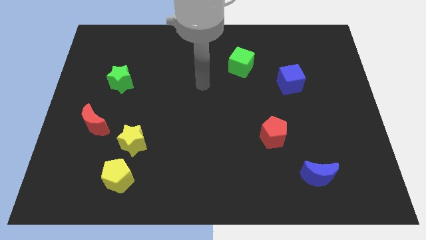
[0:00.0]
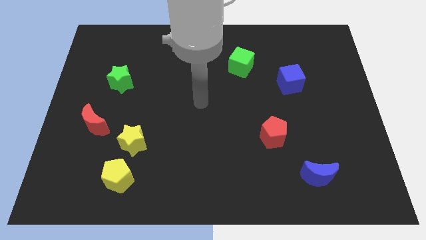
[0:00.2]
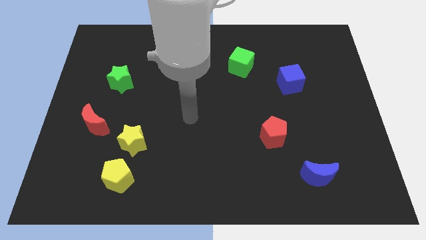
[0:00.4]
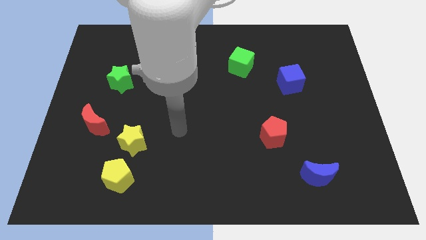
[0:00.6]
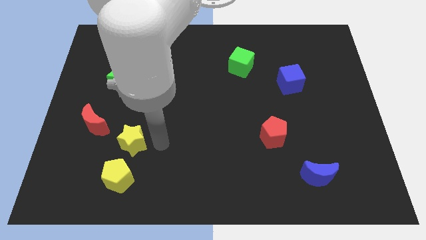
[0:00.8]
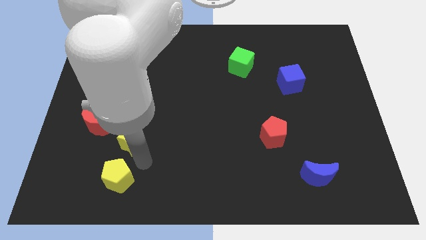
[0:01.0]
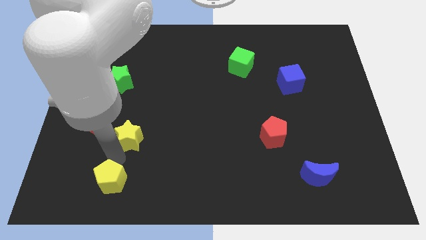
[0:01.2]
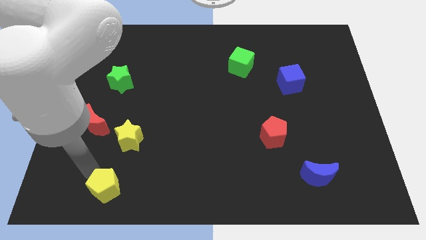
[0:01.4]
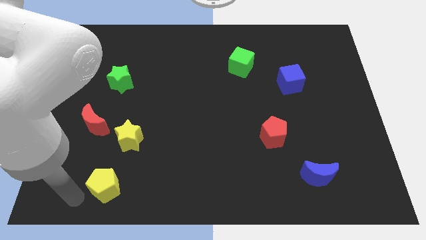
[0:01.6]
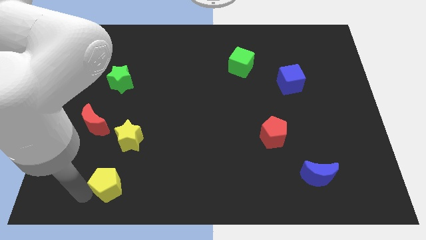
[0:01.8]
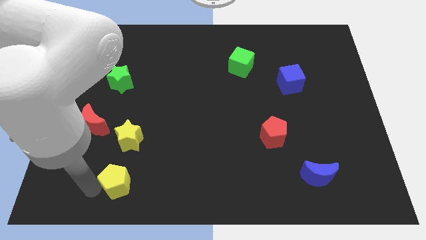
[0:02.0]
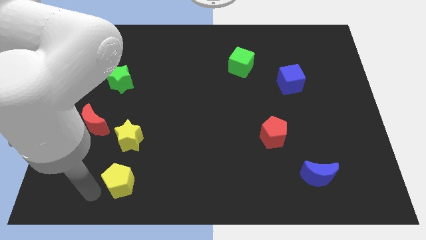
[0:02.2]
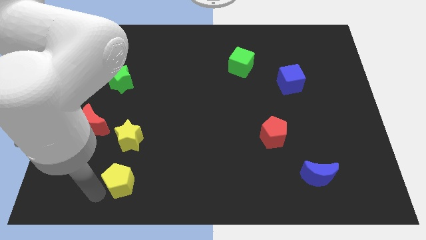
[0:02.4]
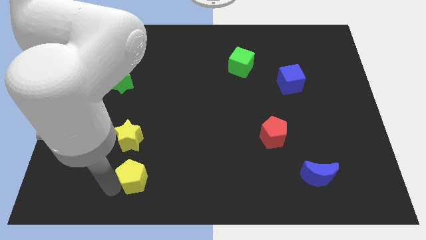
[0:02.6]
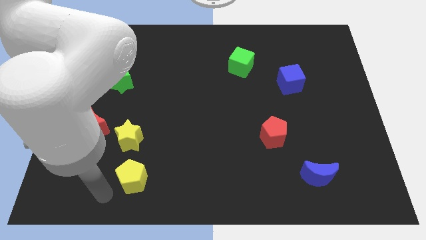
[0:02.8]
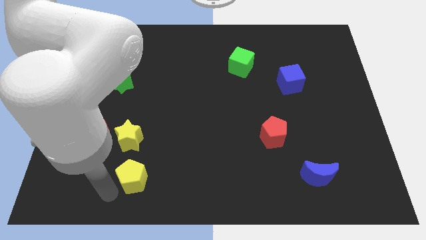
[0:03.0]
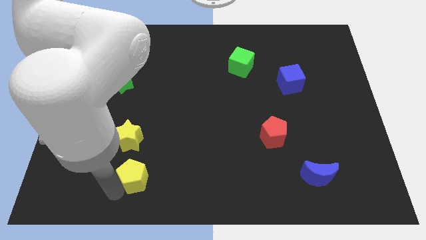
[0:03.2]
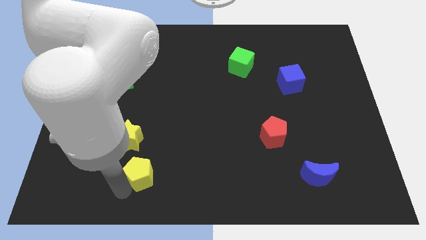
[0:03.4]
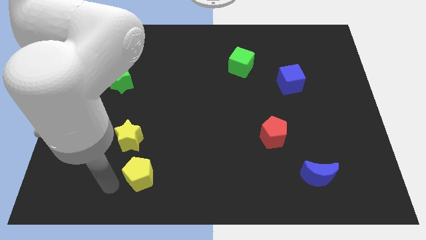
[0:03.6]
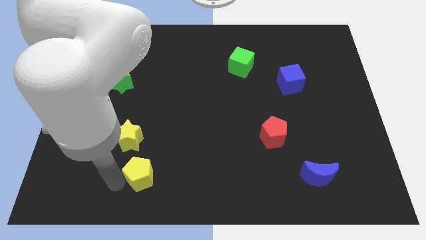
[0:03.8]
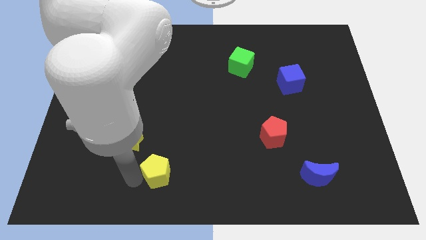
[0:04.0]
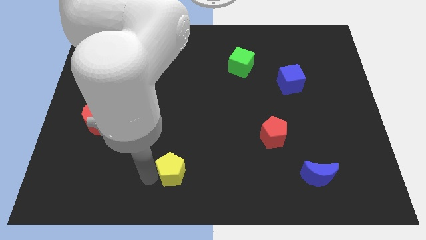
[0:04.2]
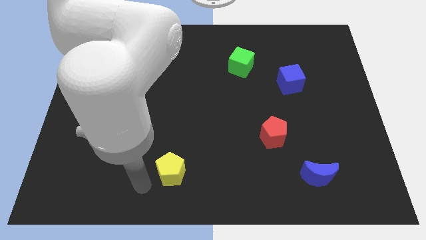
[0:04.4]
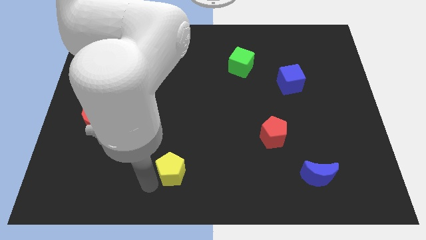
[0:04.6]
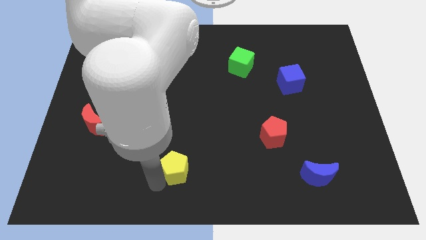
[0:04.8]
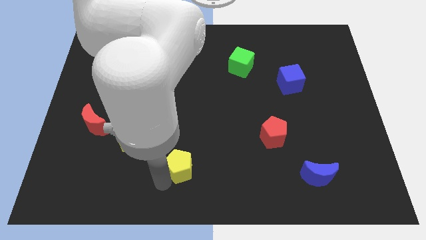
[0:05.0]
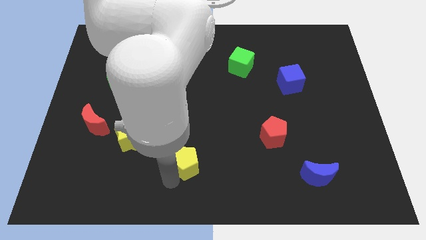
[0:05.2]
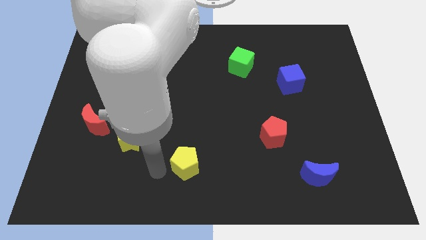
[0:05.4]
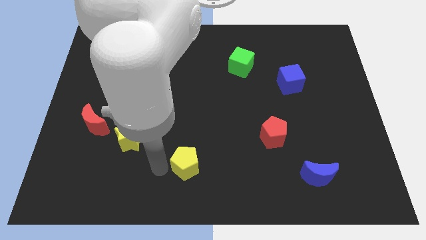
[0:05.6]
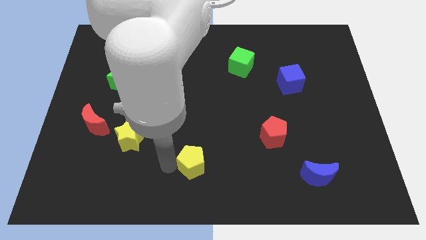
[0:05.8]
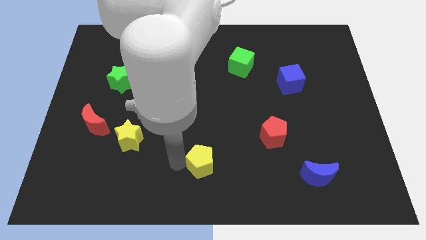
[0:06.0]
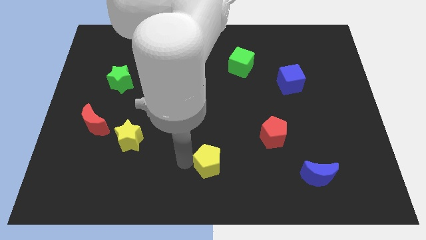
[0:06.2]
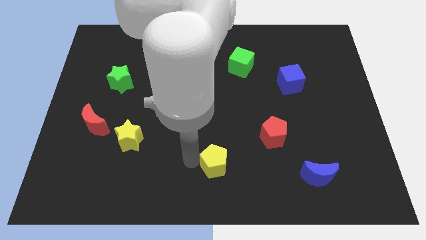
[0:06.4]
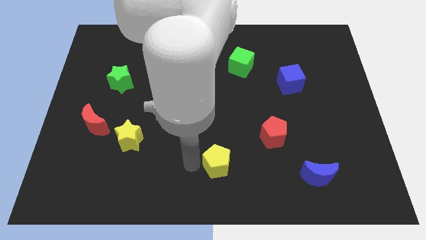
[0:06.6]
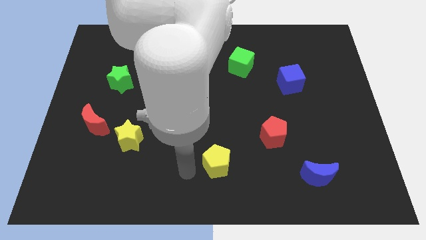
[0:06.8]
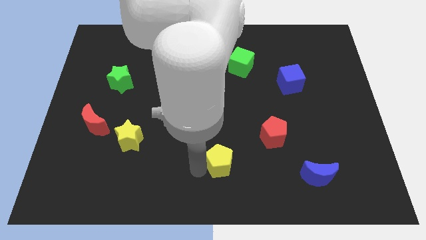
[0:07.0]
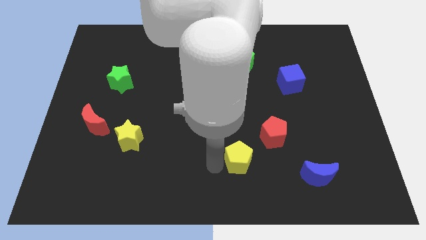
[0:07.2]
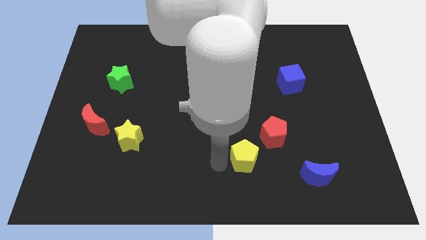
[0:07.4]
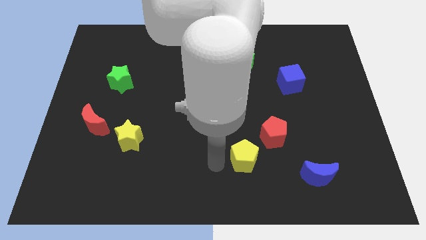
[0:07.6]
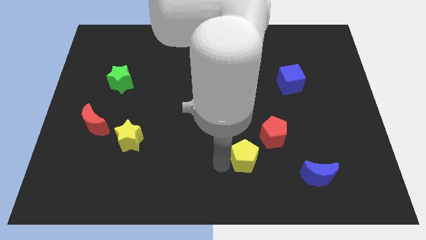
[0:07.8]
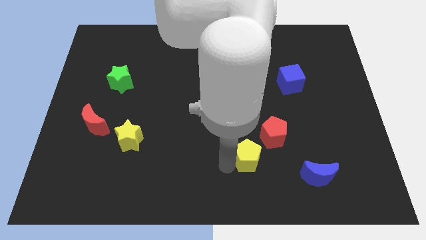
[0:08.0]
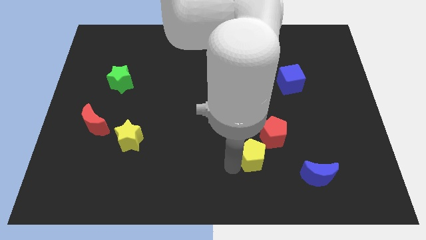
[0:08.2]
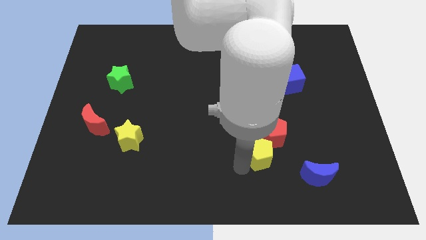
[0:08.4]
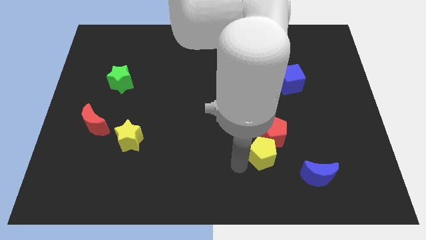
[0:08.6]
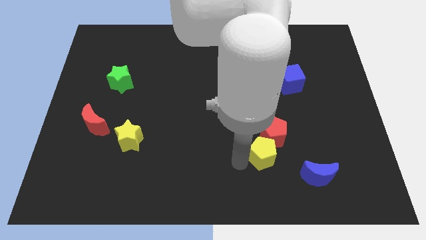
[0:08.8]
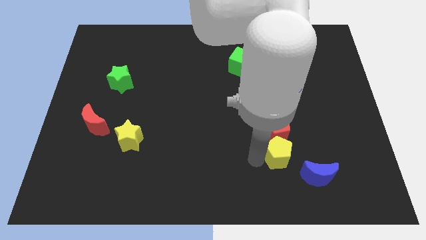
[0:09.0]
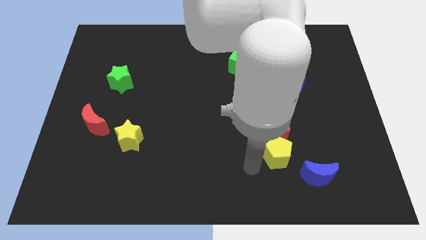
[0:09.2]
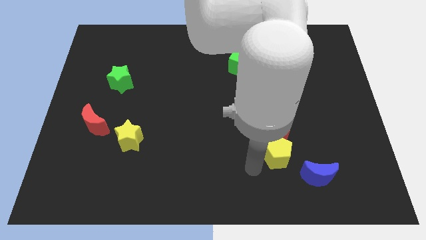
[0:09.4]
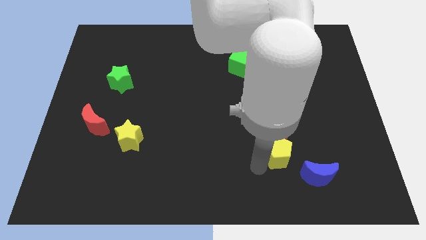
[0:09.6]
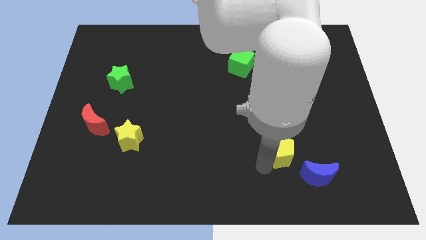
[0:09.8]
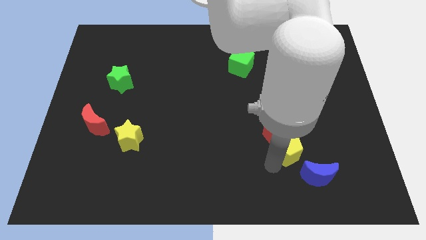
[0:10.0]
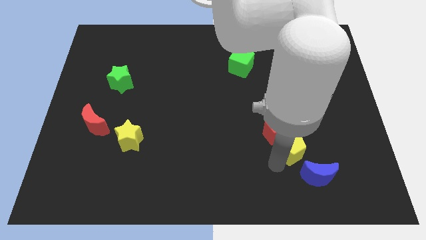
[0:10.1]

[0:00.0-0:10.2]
push the yellow pentagon to the top of the blue moon

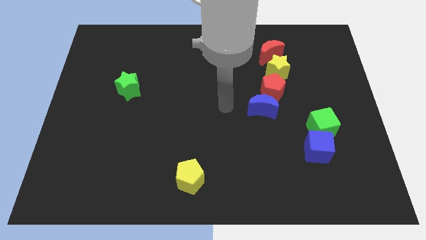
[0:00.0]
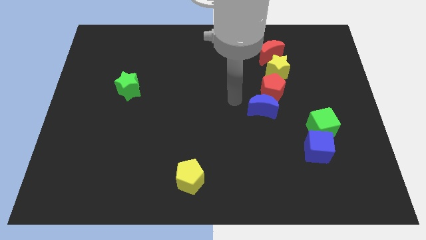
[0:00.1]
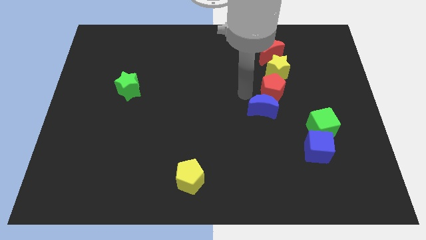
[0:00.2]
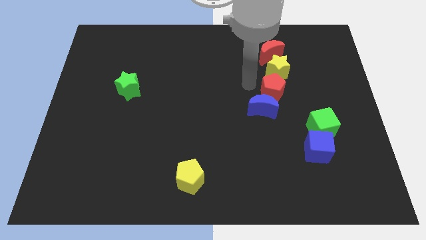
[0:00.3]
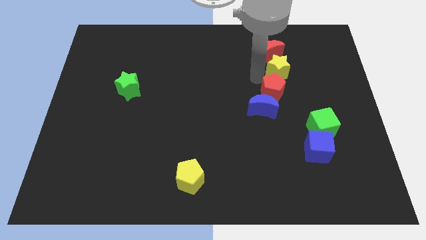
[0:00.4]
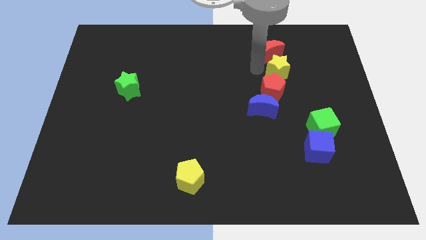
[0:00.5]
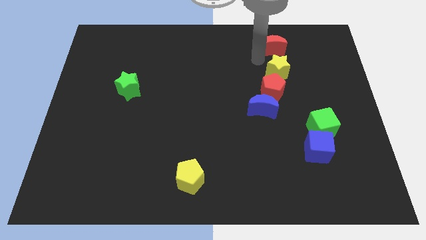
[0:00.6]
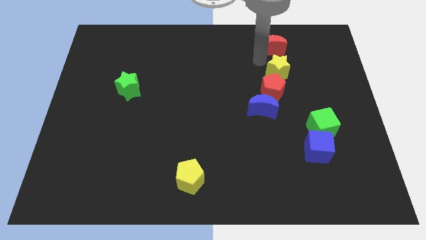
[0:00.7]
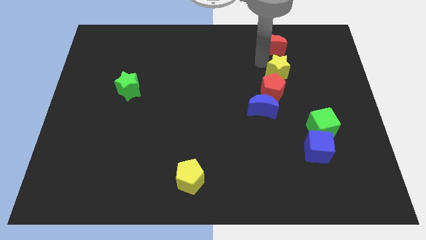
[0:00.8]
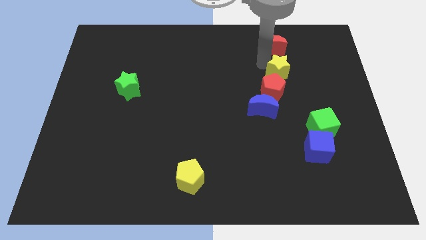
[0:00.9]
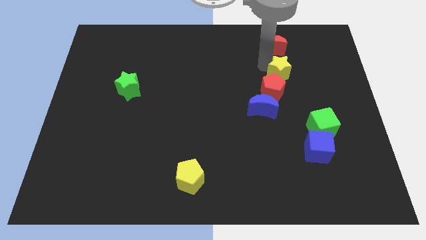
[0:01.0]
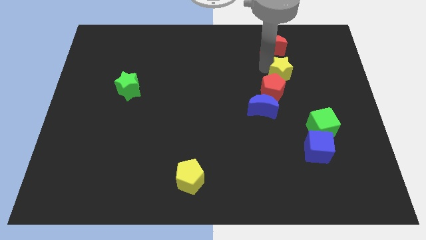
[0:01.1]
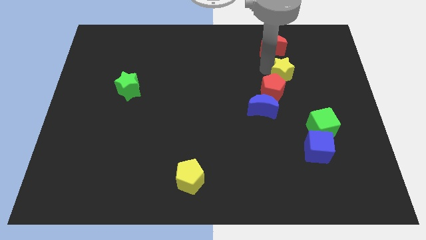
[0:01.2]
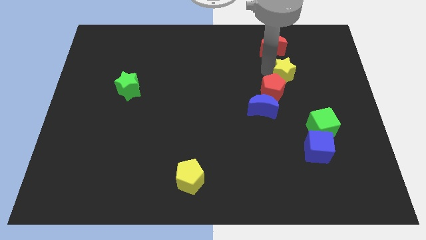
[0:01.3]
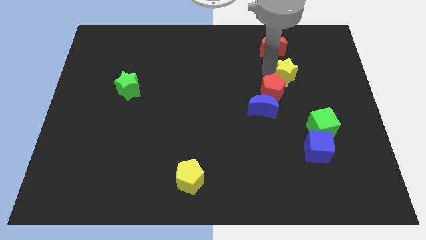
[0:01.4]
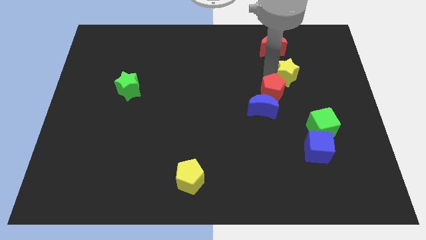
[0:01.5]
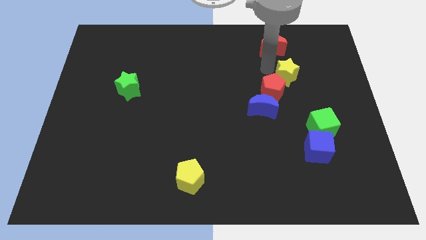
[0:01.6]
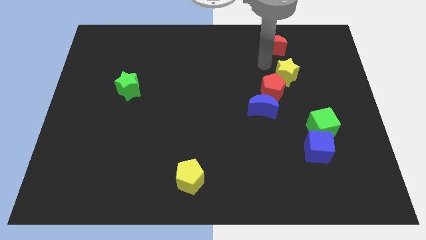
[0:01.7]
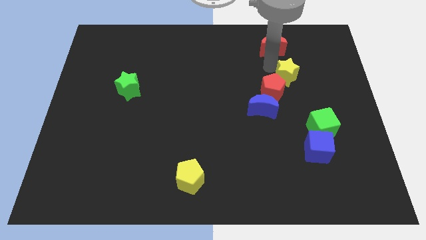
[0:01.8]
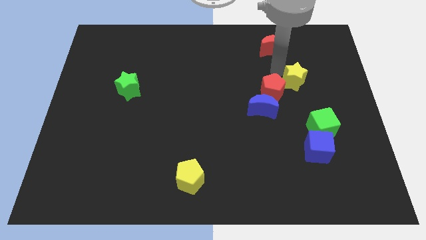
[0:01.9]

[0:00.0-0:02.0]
slide the yellow star to the right side of the red pentagon

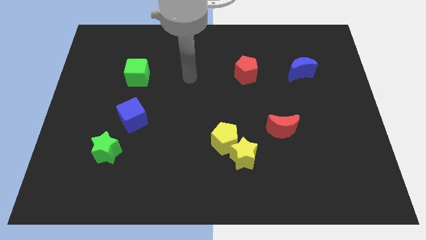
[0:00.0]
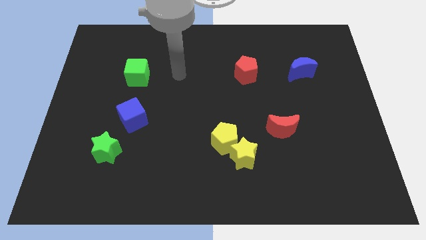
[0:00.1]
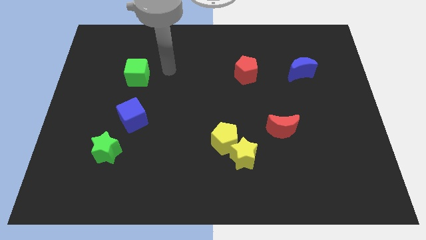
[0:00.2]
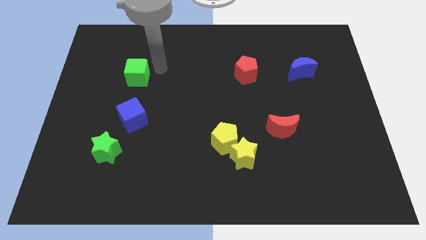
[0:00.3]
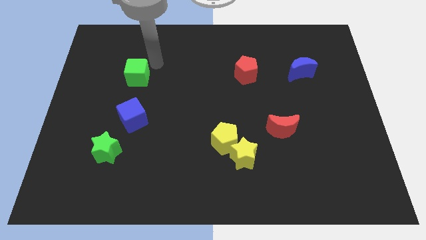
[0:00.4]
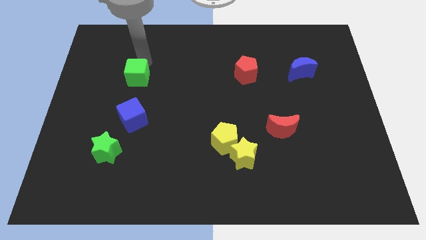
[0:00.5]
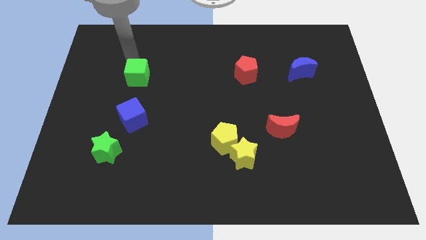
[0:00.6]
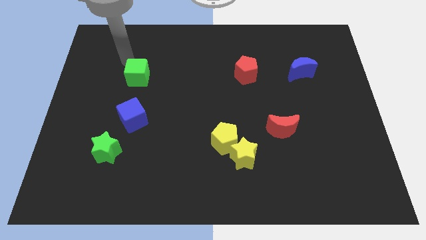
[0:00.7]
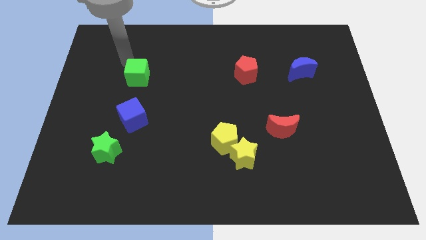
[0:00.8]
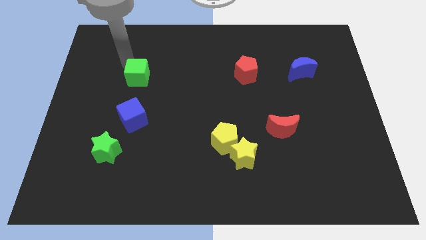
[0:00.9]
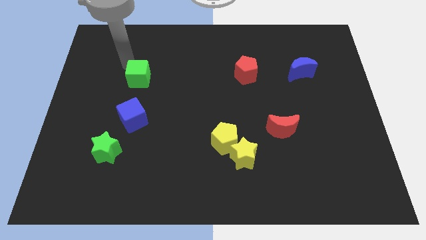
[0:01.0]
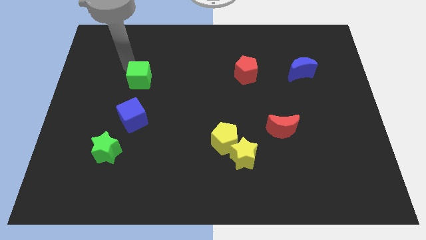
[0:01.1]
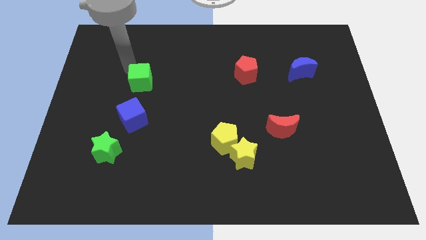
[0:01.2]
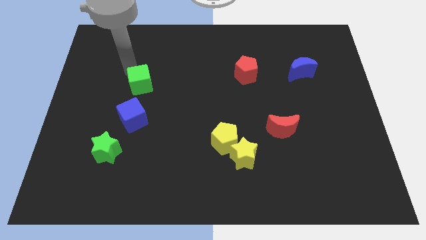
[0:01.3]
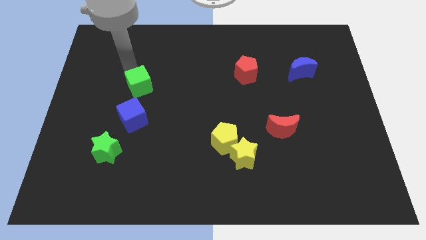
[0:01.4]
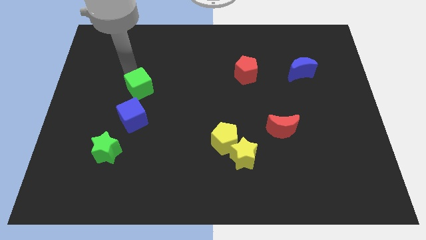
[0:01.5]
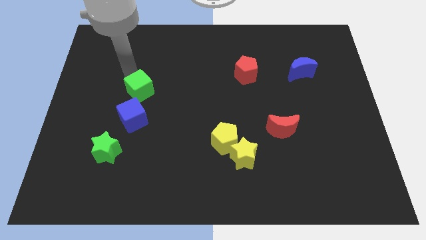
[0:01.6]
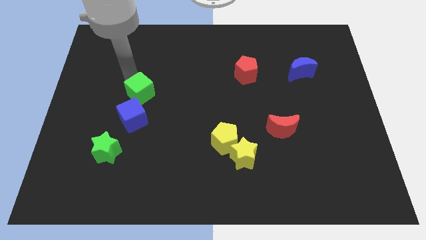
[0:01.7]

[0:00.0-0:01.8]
push the green cube diagonally up and to the right of the blue cube
